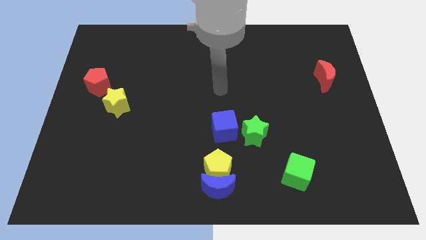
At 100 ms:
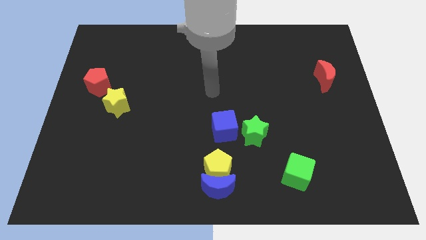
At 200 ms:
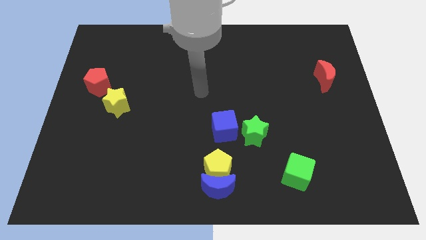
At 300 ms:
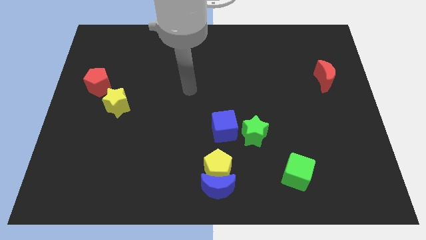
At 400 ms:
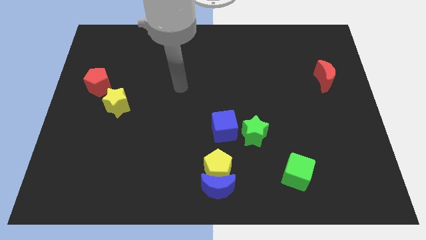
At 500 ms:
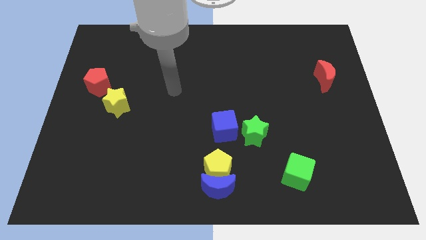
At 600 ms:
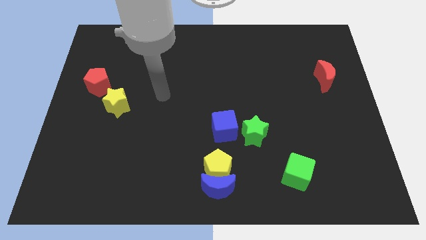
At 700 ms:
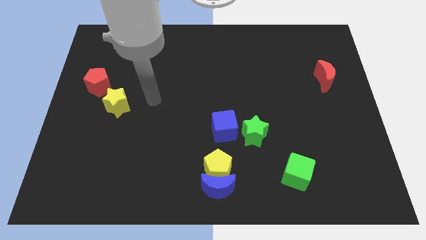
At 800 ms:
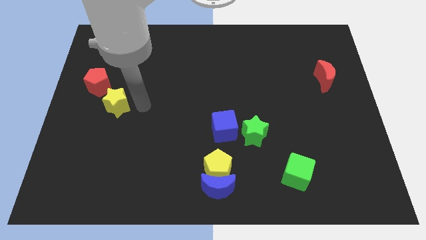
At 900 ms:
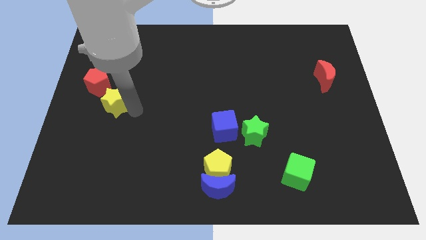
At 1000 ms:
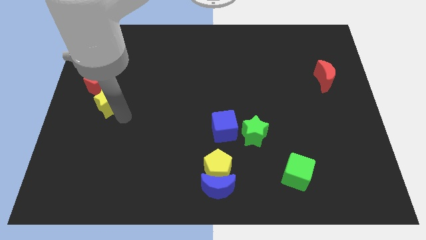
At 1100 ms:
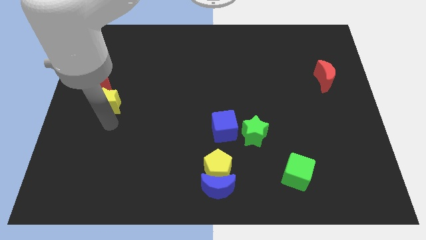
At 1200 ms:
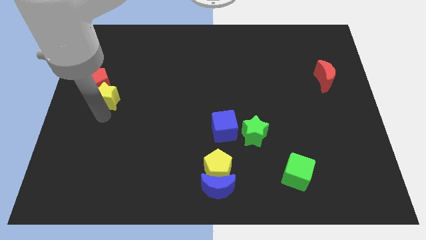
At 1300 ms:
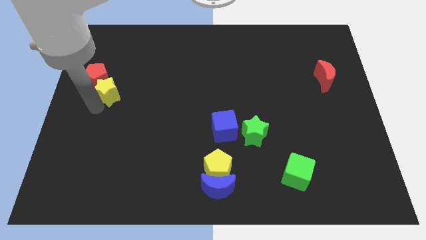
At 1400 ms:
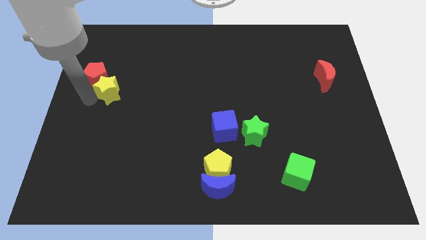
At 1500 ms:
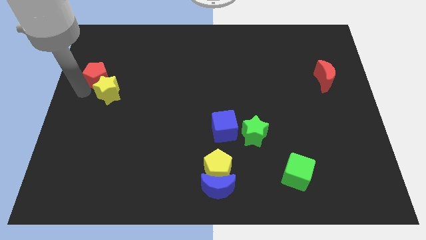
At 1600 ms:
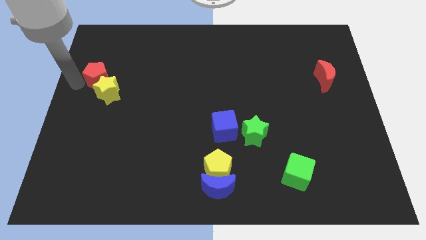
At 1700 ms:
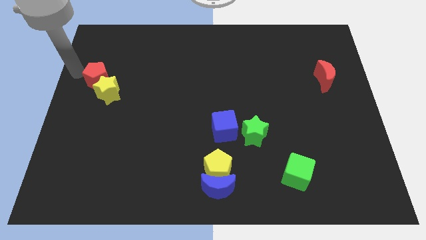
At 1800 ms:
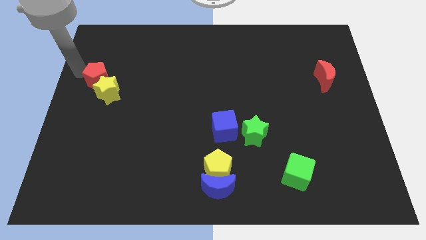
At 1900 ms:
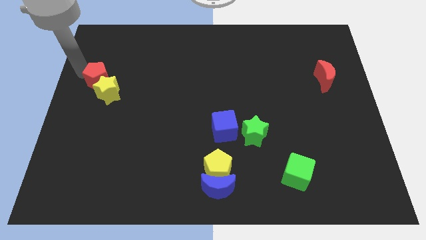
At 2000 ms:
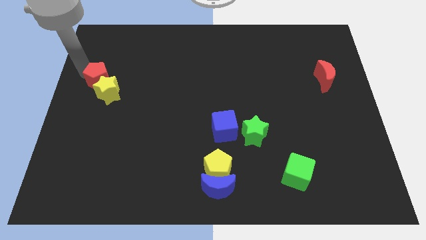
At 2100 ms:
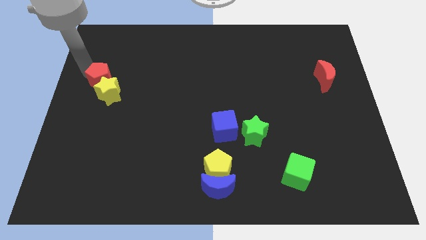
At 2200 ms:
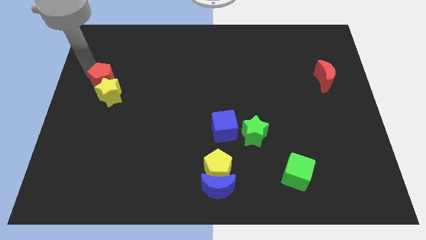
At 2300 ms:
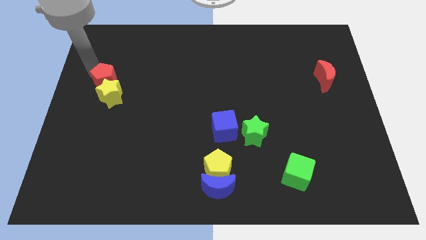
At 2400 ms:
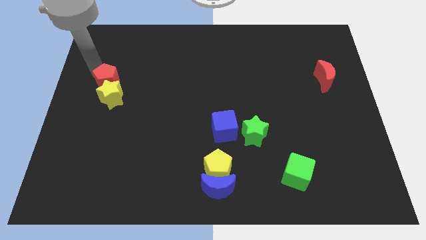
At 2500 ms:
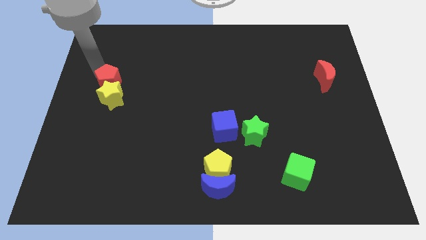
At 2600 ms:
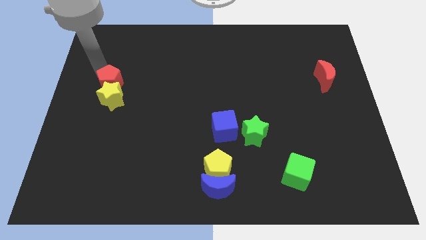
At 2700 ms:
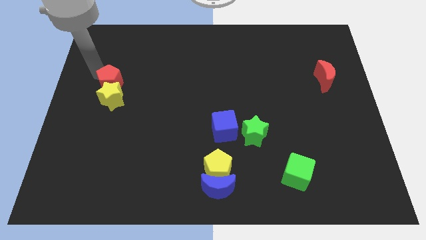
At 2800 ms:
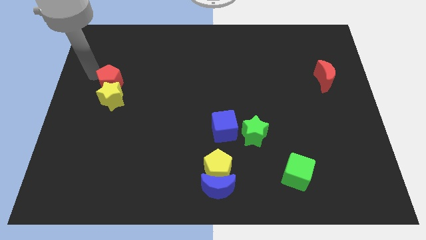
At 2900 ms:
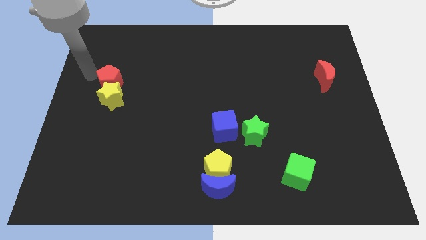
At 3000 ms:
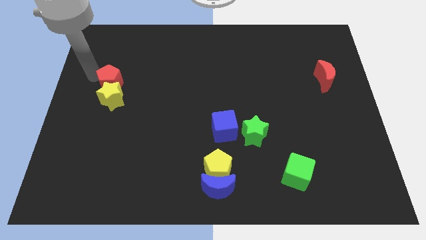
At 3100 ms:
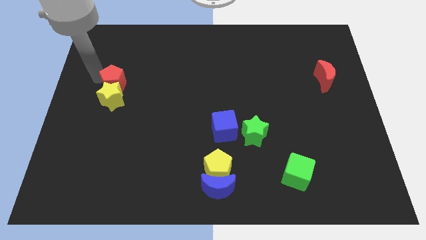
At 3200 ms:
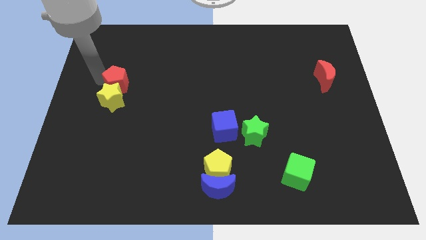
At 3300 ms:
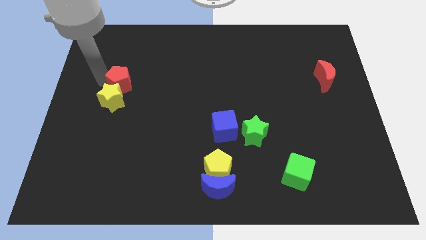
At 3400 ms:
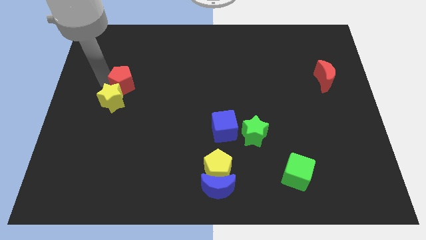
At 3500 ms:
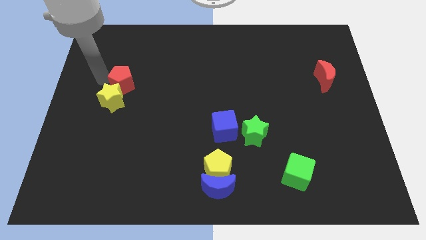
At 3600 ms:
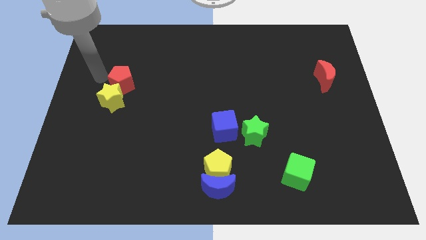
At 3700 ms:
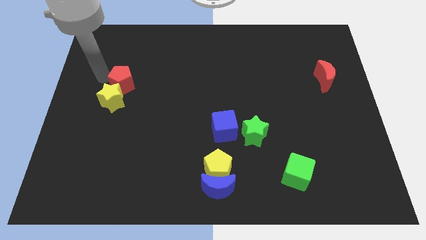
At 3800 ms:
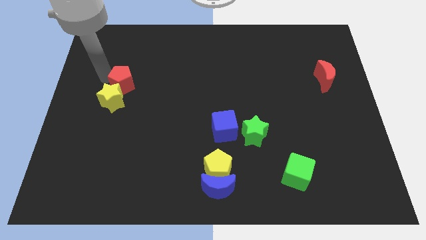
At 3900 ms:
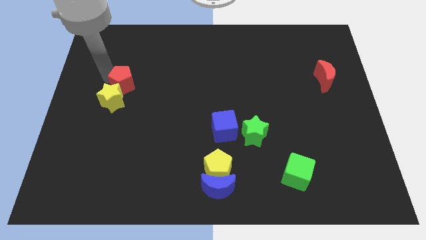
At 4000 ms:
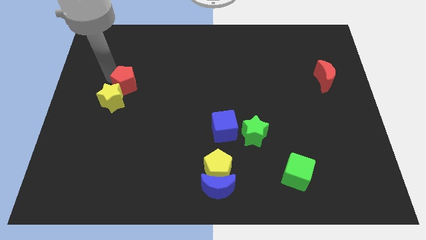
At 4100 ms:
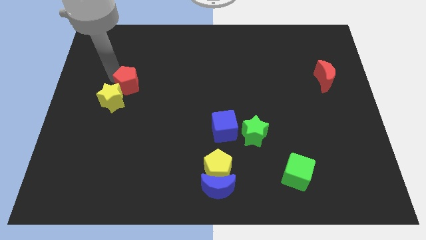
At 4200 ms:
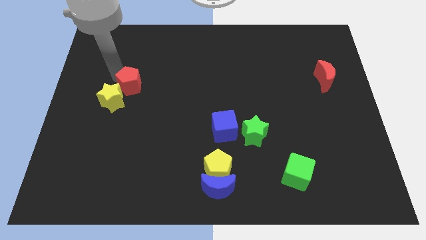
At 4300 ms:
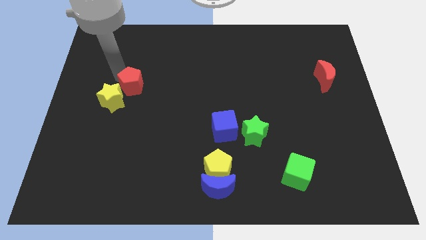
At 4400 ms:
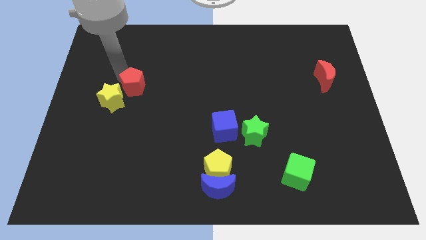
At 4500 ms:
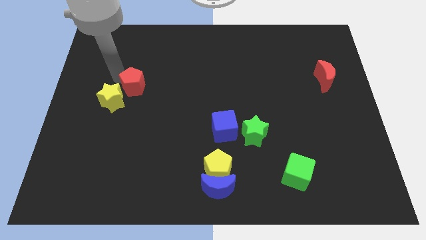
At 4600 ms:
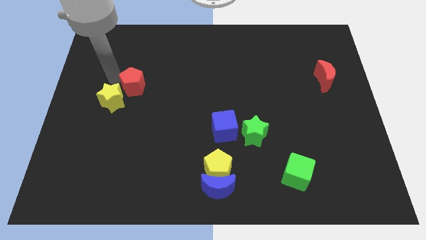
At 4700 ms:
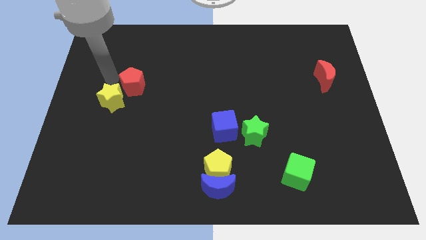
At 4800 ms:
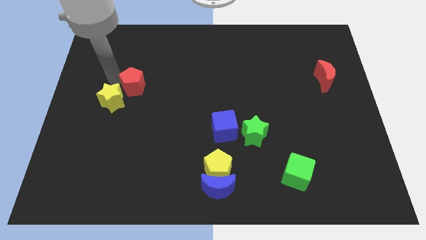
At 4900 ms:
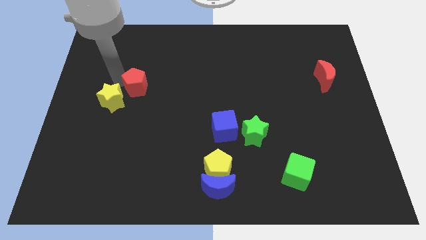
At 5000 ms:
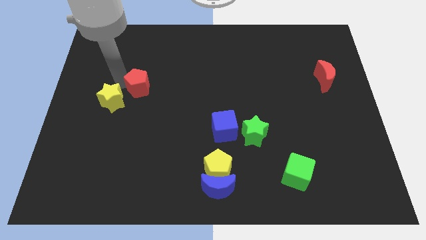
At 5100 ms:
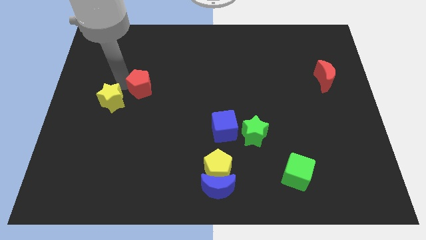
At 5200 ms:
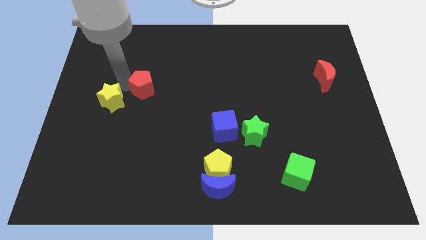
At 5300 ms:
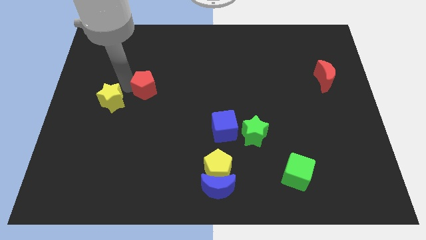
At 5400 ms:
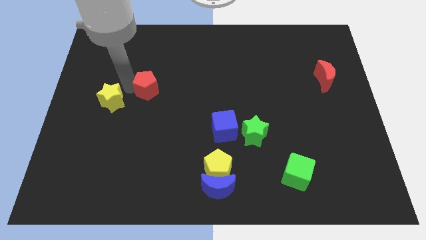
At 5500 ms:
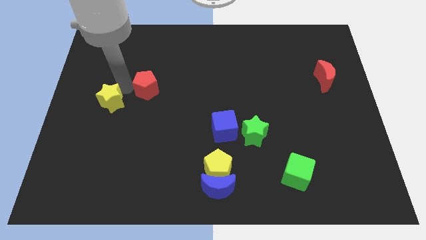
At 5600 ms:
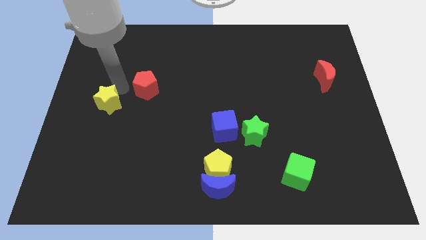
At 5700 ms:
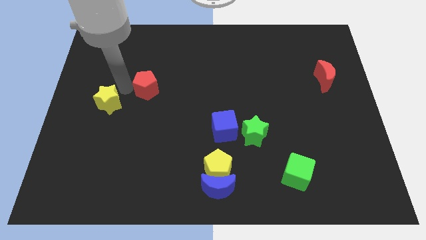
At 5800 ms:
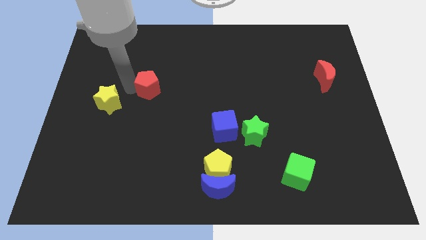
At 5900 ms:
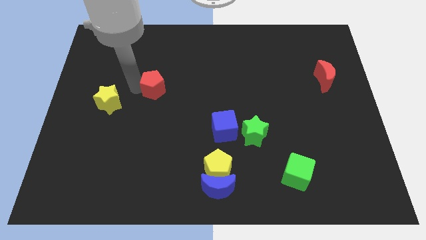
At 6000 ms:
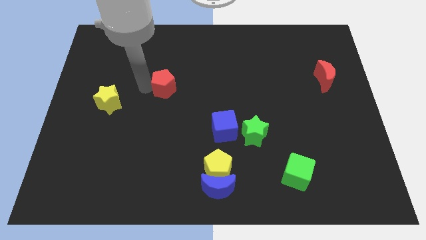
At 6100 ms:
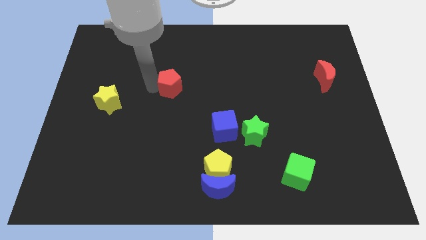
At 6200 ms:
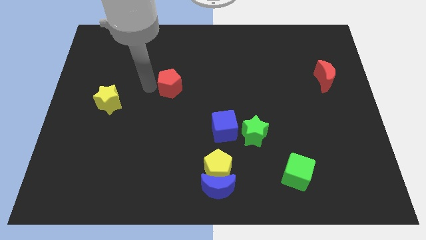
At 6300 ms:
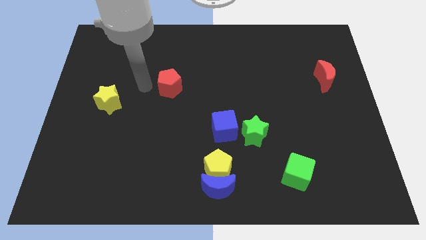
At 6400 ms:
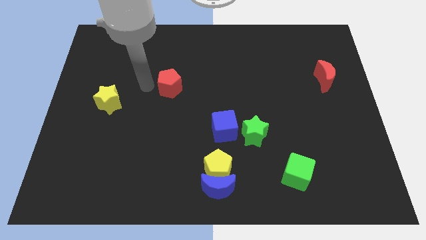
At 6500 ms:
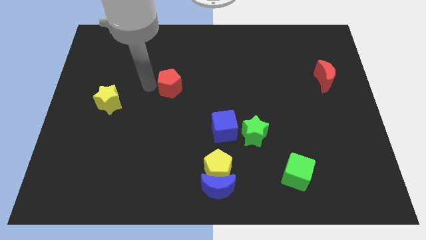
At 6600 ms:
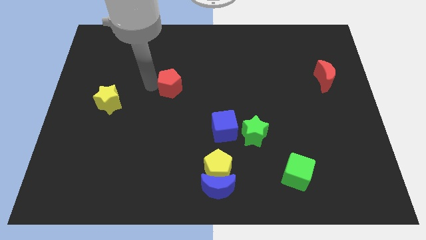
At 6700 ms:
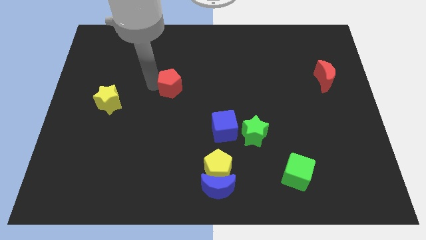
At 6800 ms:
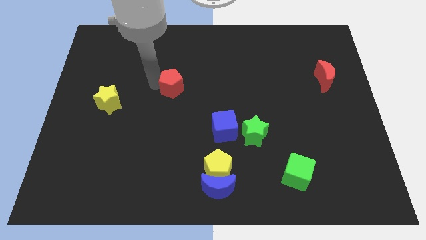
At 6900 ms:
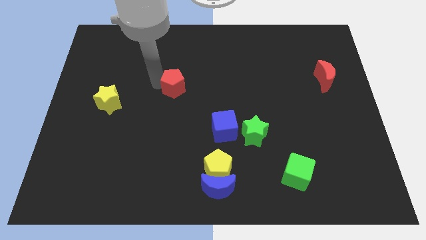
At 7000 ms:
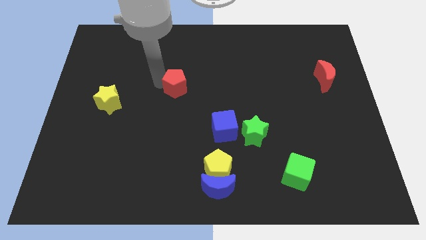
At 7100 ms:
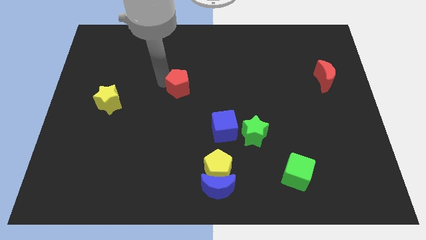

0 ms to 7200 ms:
push the red pentagon to the right

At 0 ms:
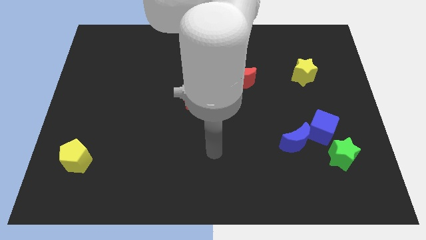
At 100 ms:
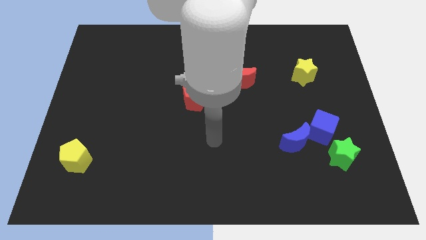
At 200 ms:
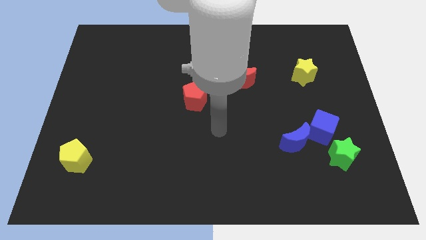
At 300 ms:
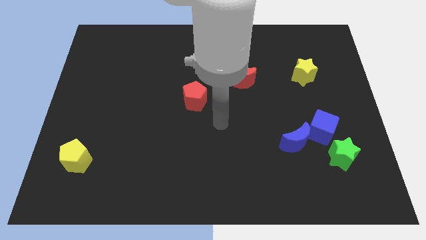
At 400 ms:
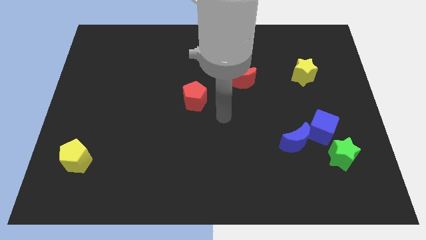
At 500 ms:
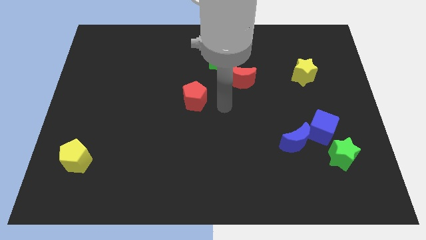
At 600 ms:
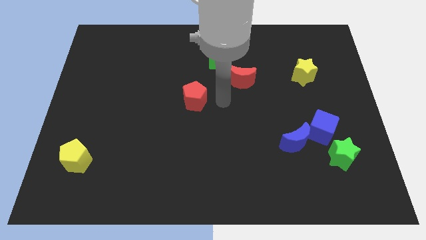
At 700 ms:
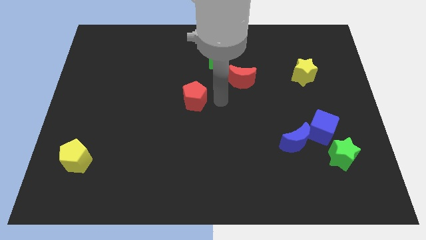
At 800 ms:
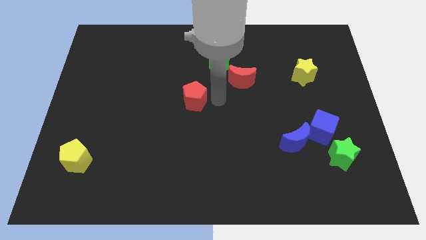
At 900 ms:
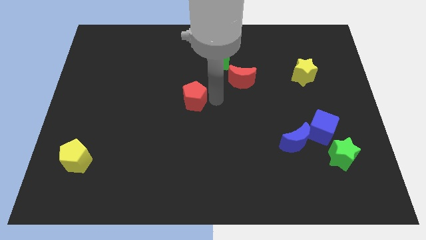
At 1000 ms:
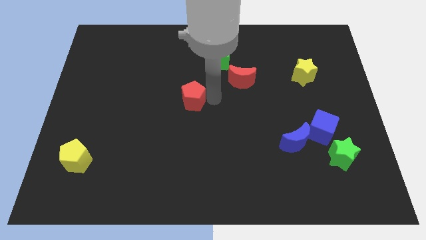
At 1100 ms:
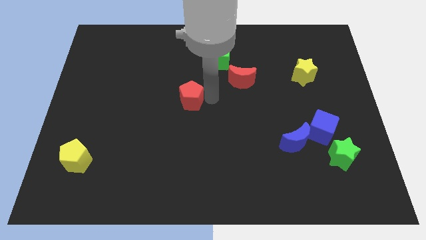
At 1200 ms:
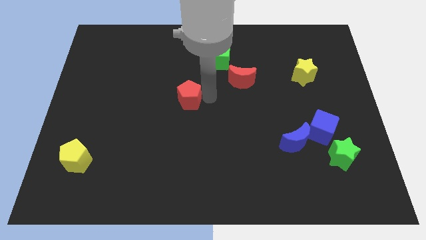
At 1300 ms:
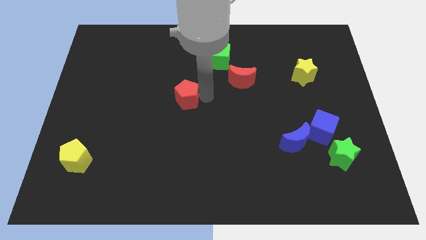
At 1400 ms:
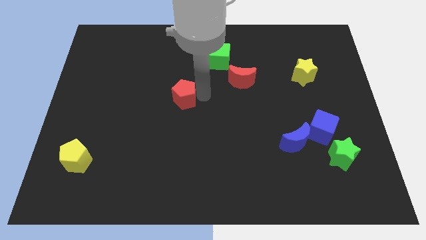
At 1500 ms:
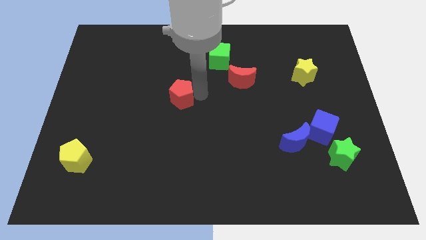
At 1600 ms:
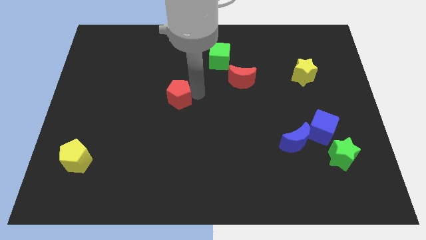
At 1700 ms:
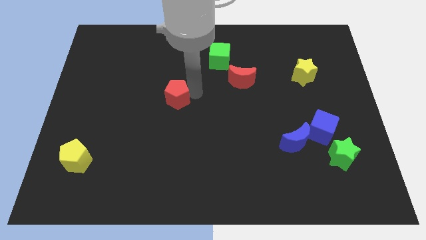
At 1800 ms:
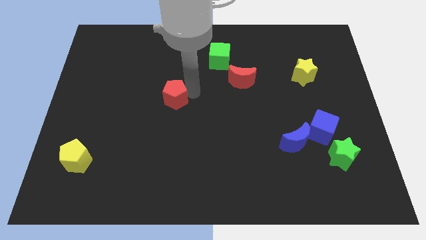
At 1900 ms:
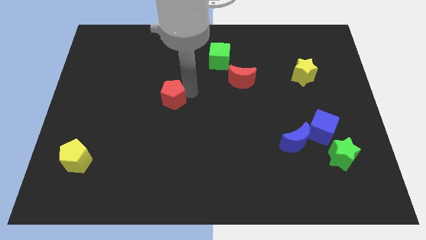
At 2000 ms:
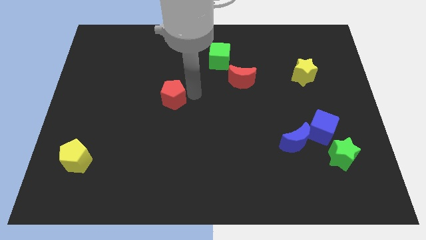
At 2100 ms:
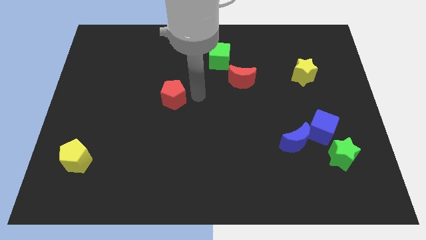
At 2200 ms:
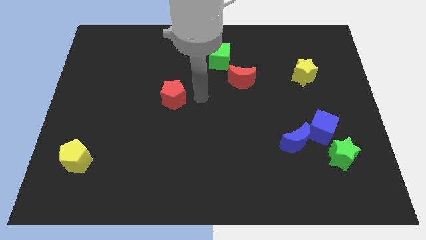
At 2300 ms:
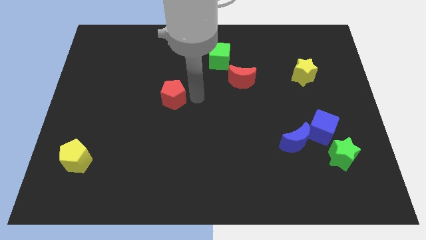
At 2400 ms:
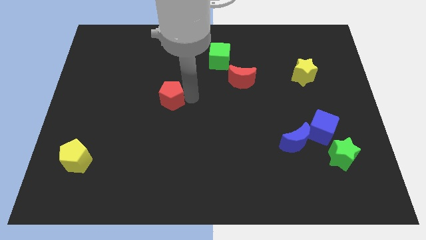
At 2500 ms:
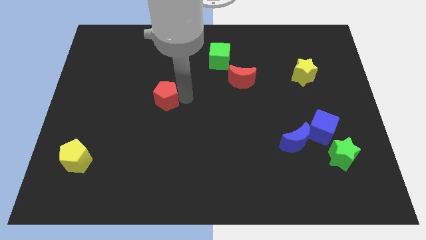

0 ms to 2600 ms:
push the red pentagon a bit to the left
